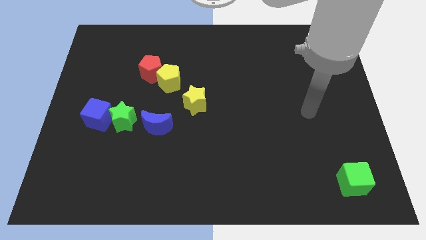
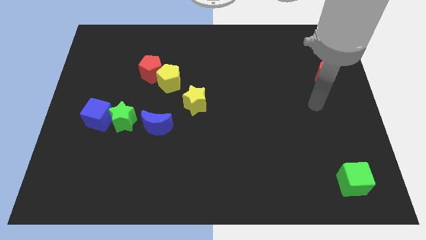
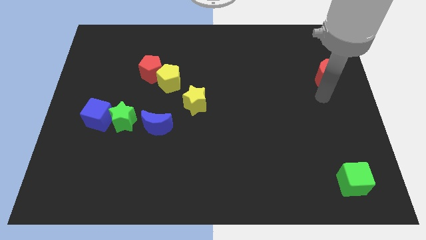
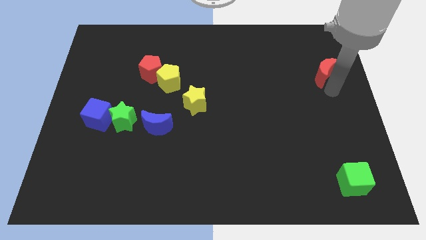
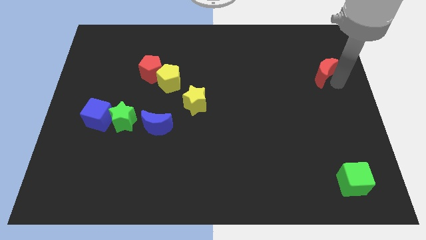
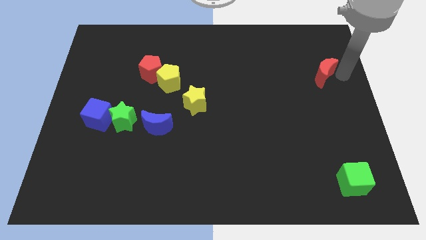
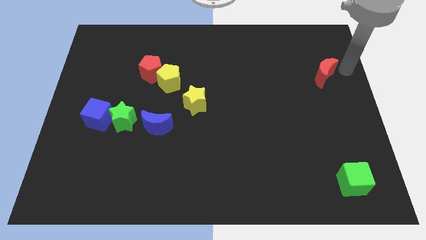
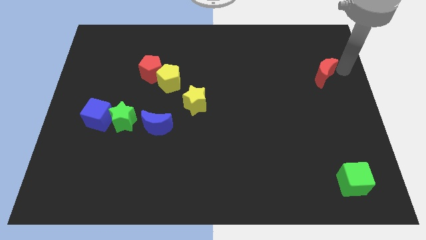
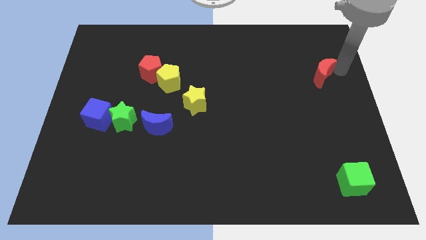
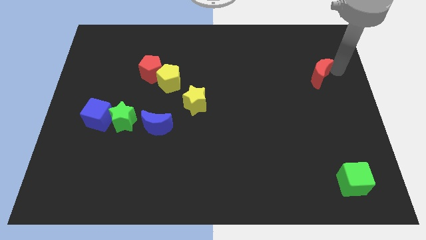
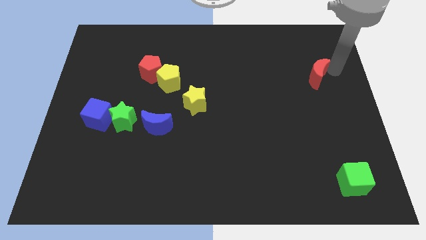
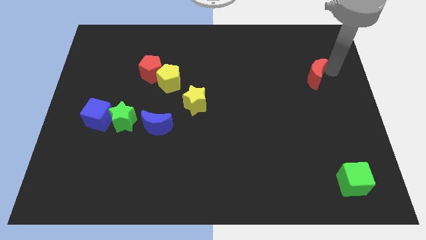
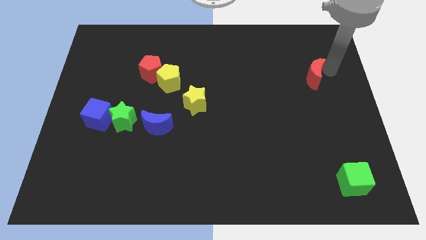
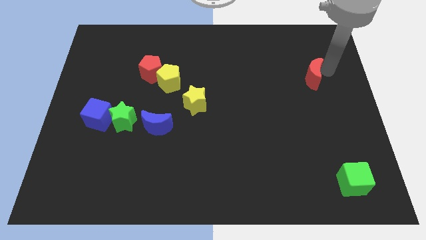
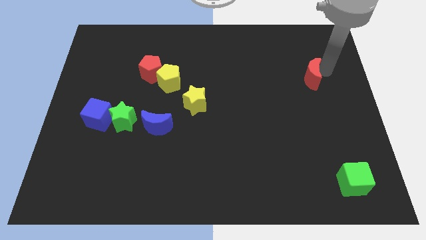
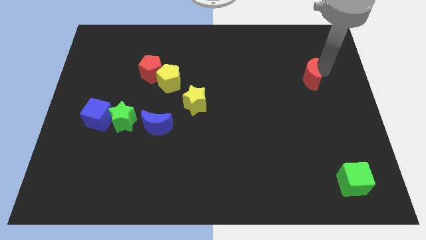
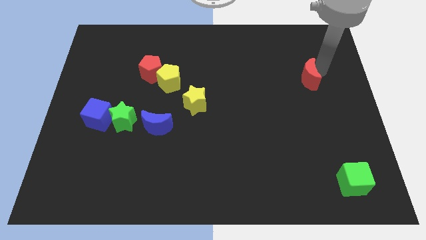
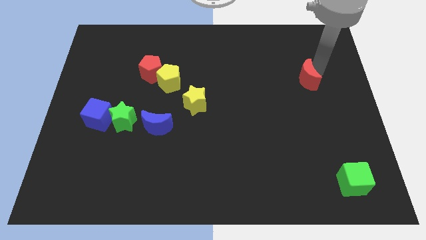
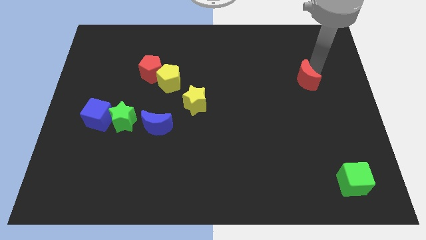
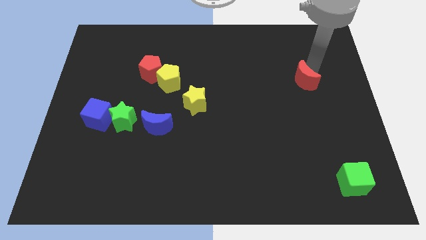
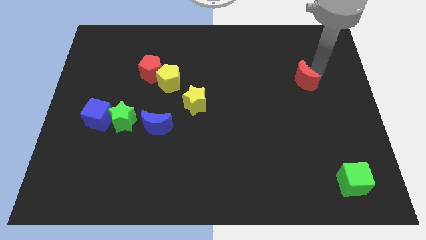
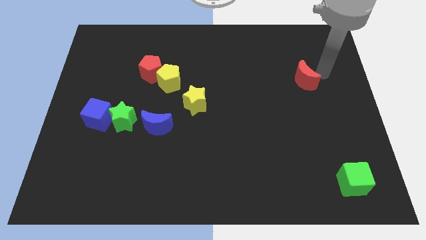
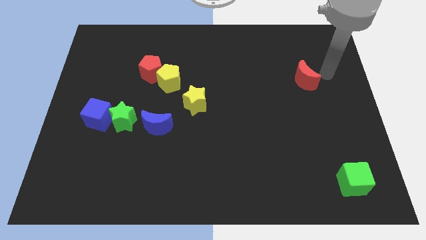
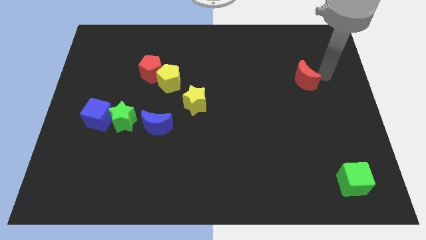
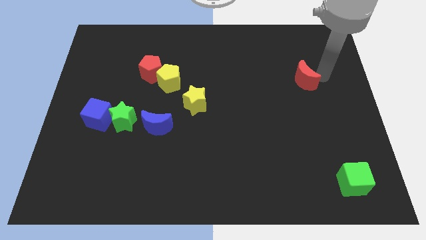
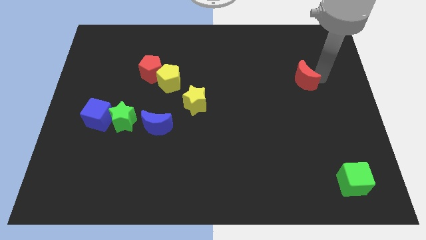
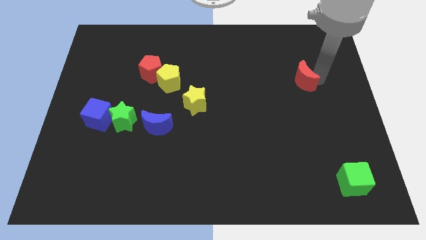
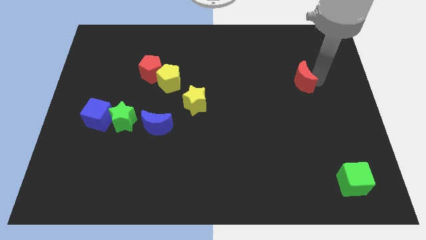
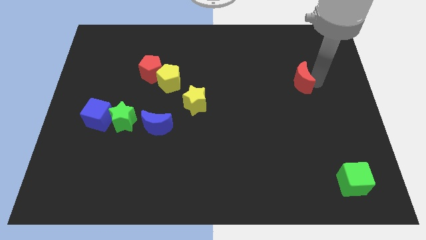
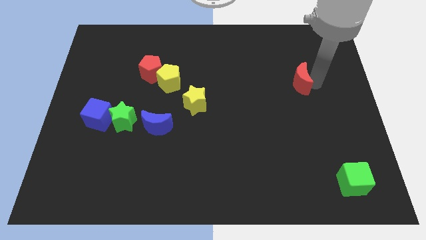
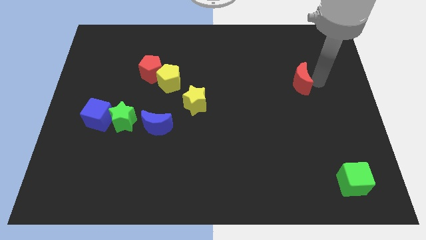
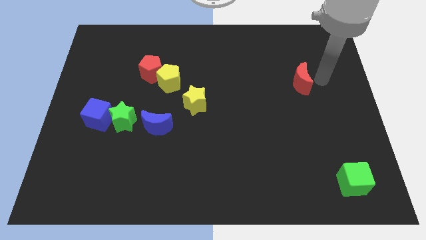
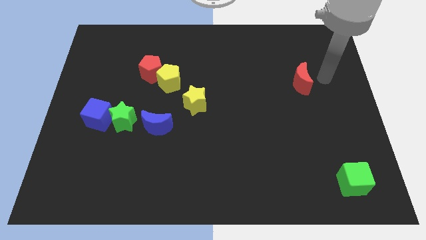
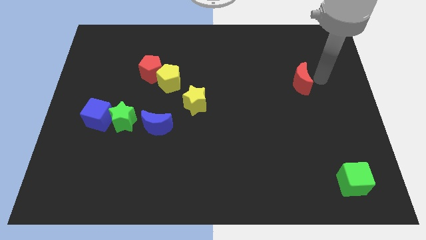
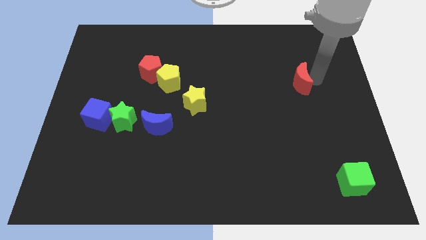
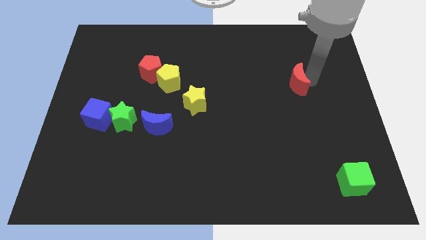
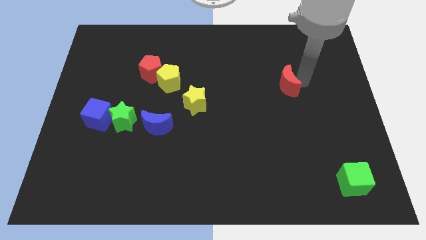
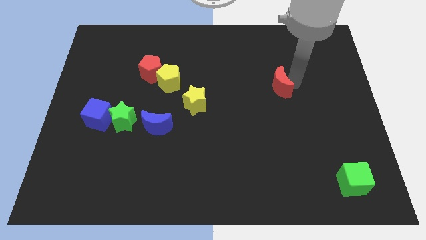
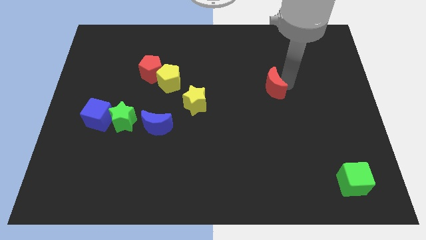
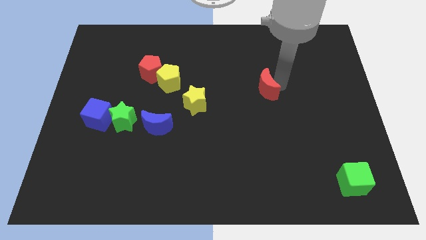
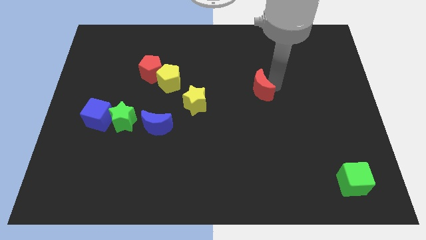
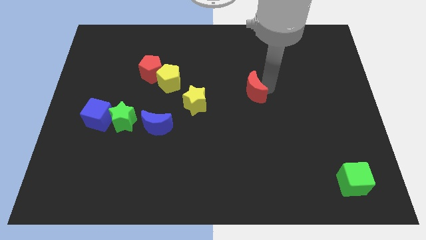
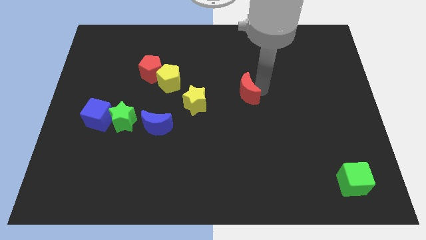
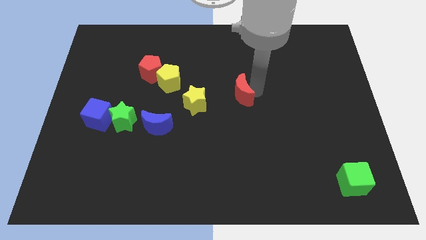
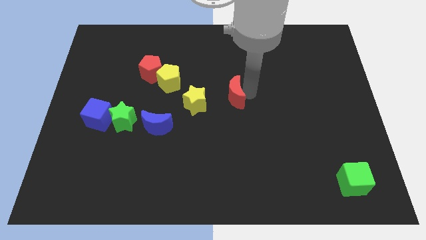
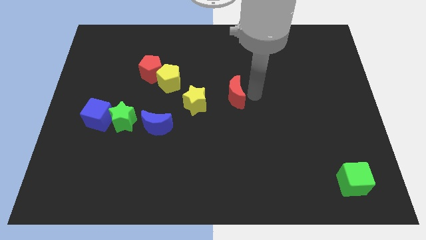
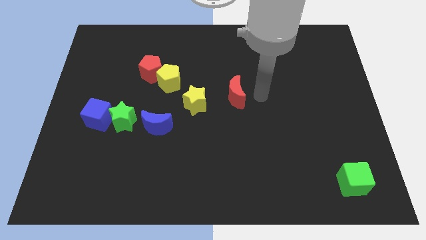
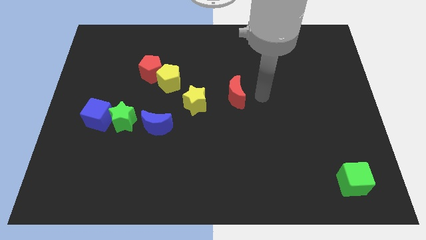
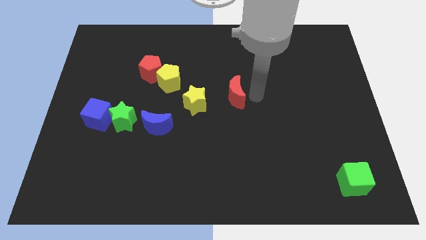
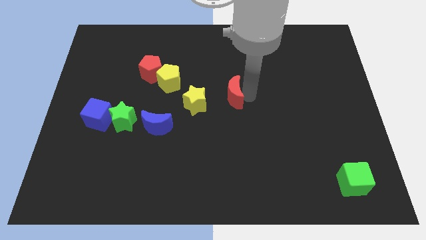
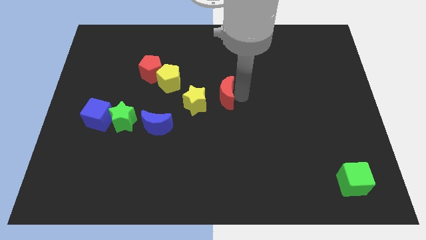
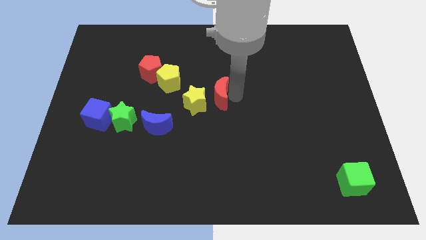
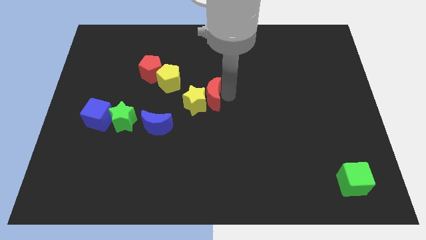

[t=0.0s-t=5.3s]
slide the red moon to the yellow star

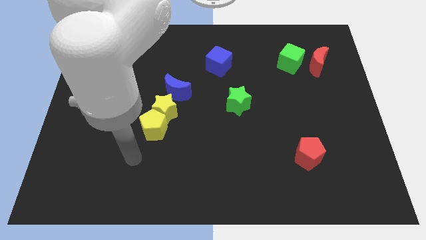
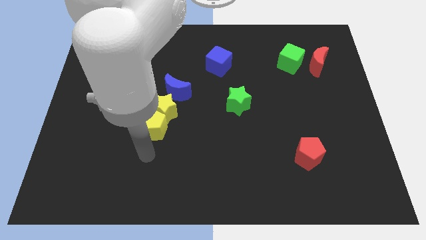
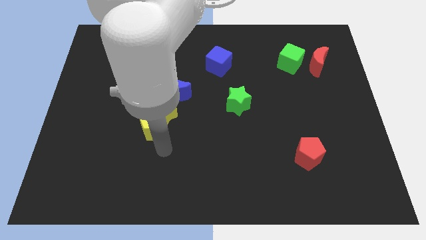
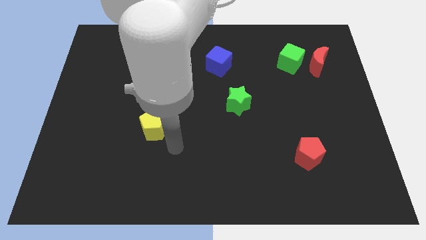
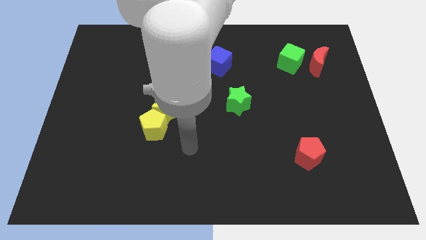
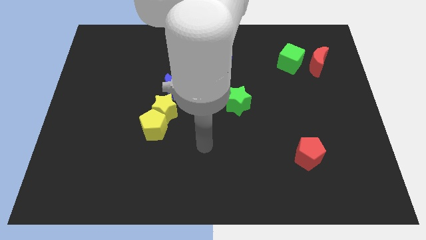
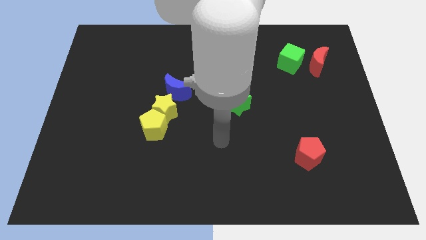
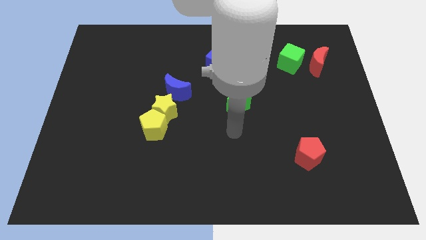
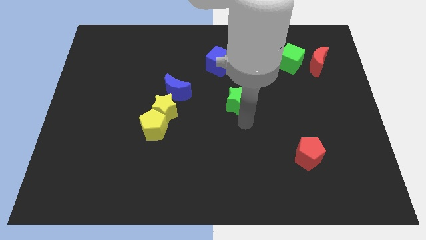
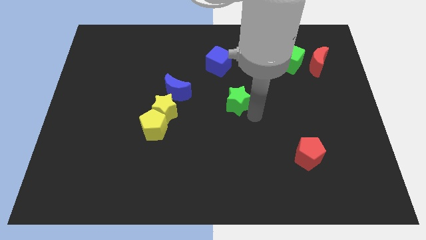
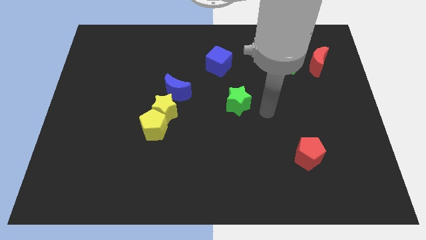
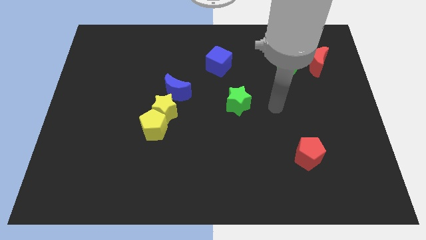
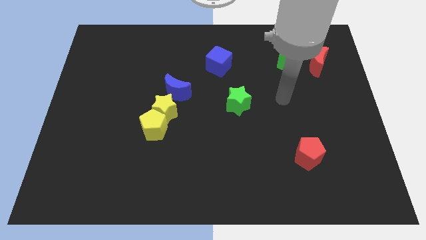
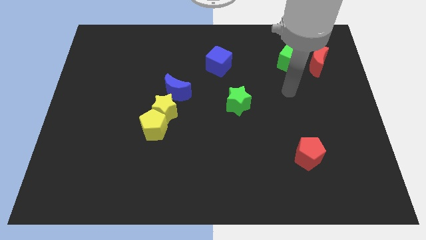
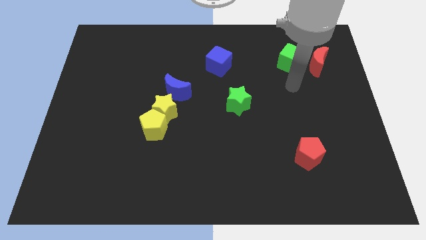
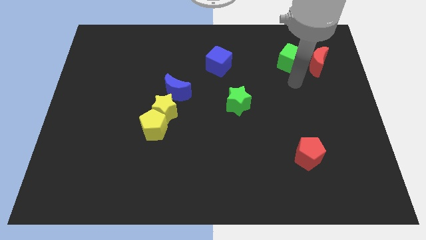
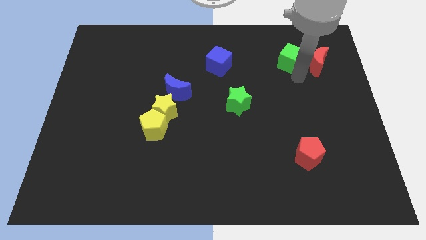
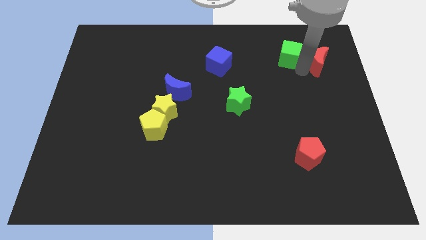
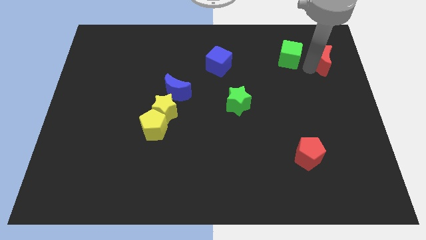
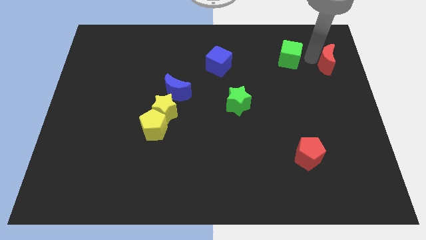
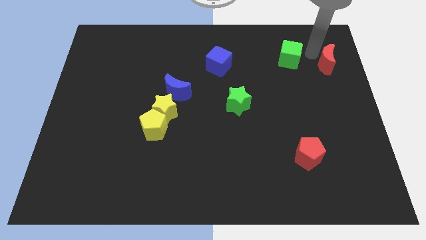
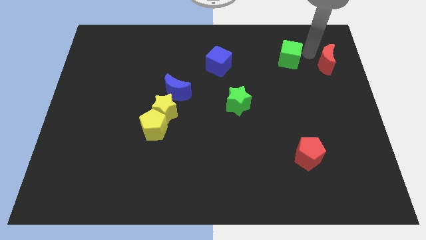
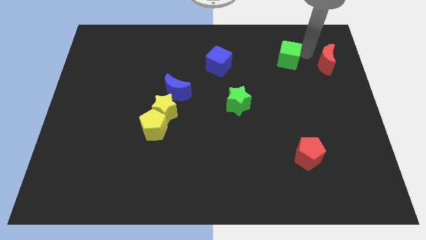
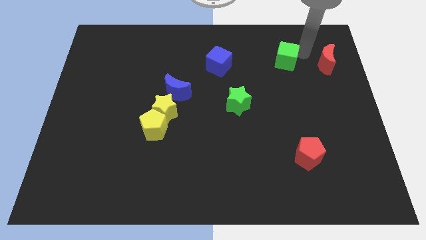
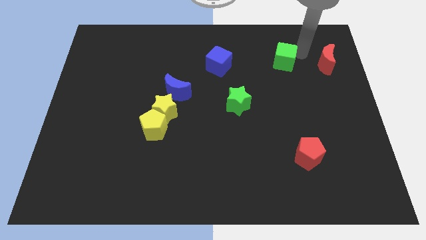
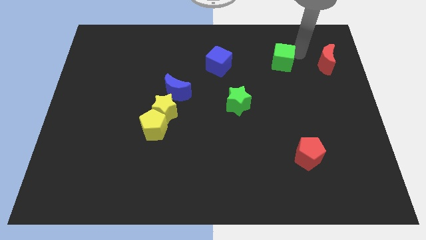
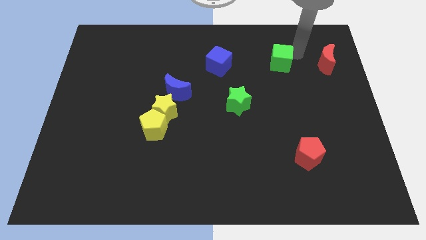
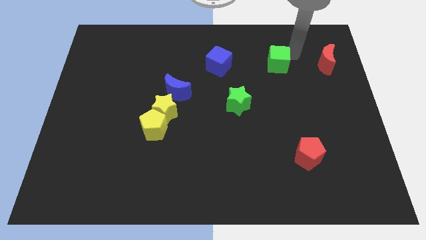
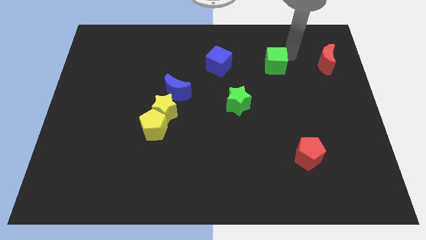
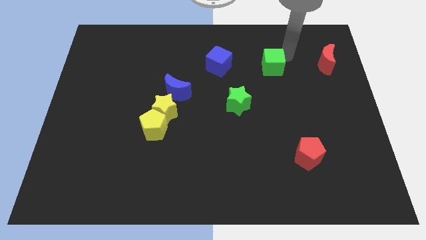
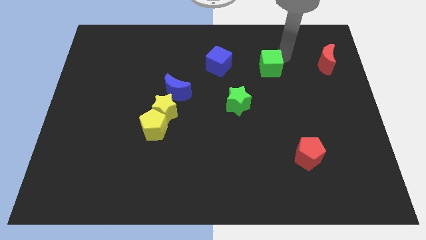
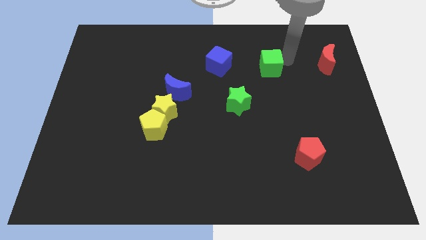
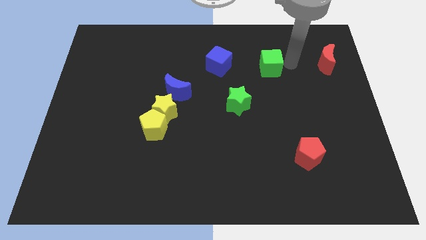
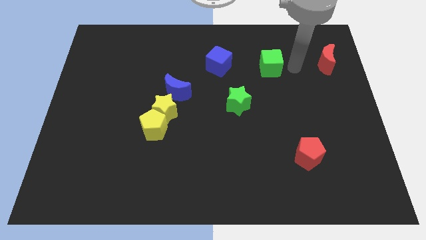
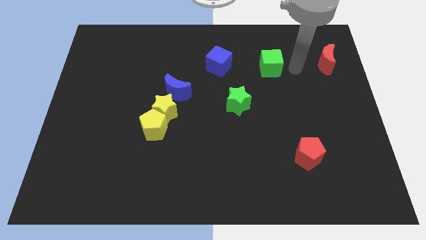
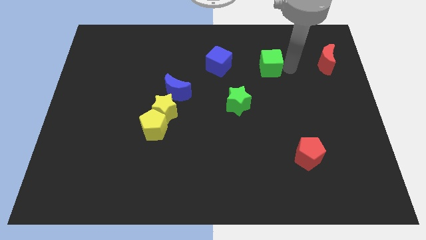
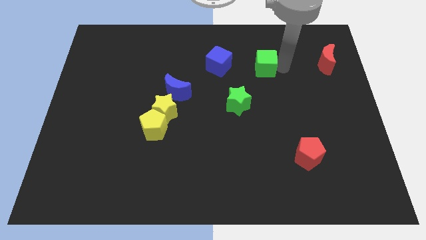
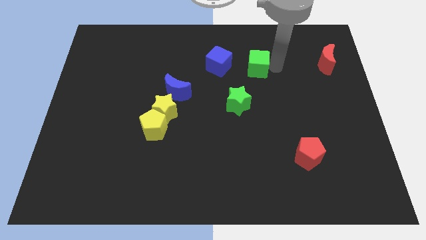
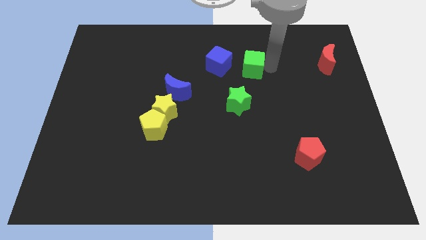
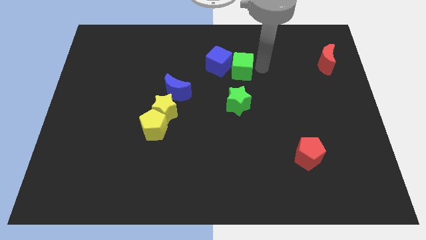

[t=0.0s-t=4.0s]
put the green cube to the blue cube
